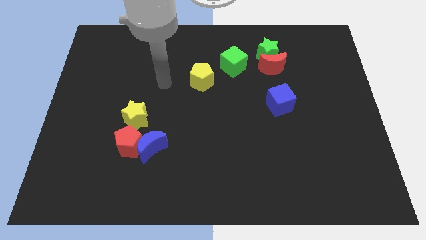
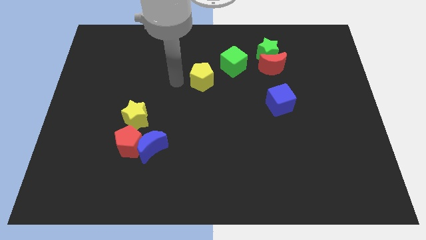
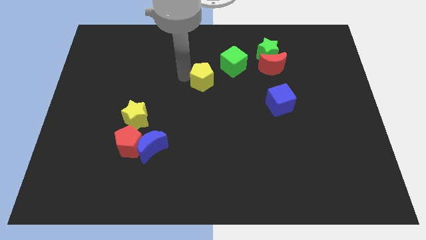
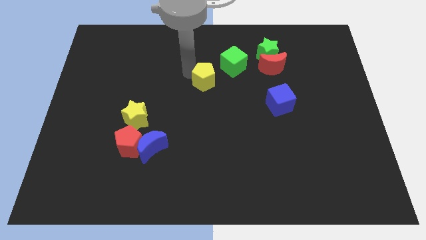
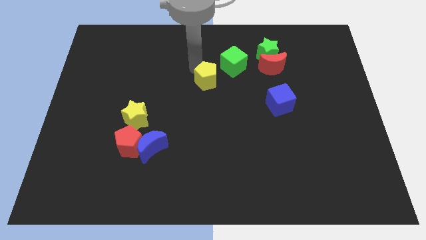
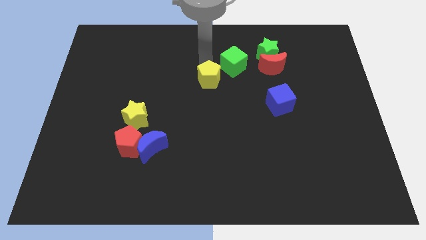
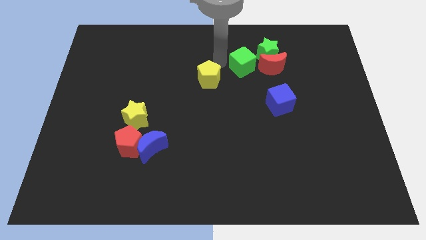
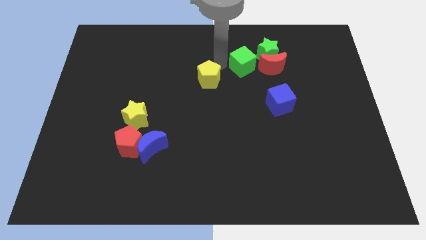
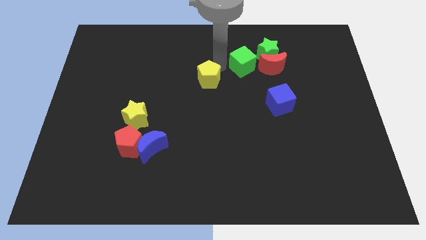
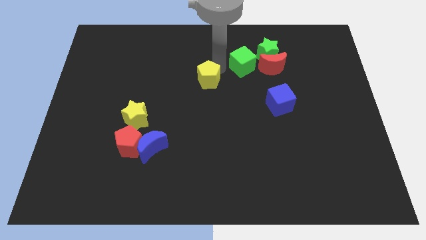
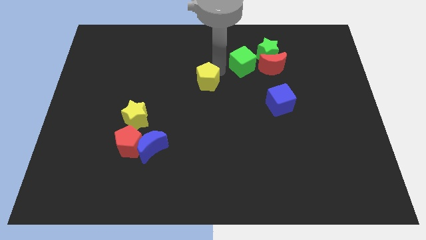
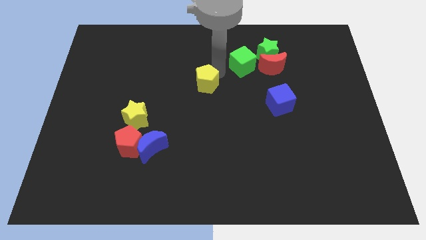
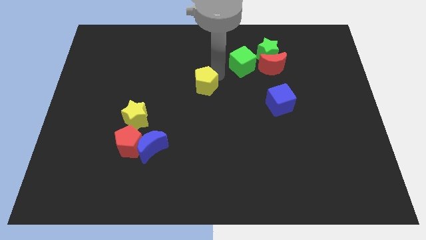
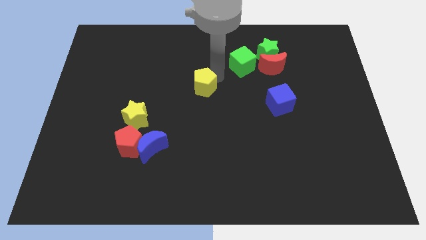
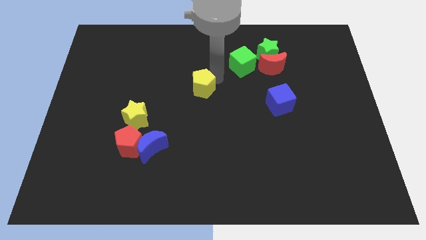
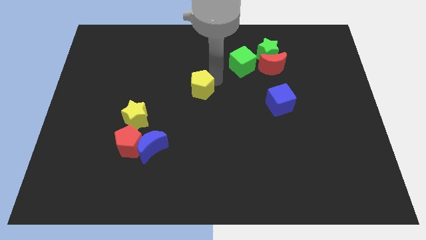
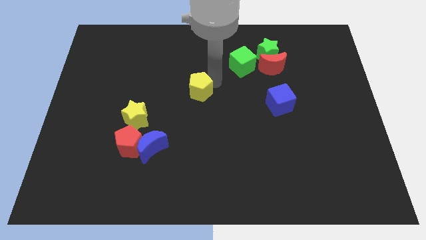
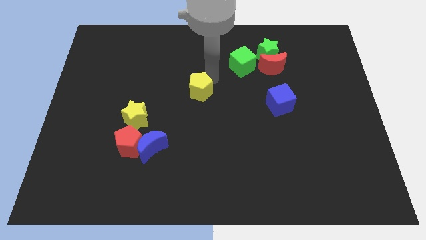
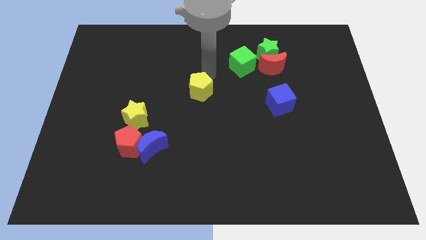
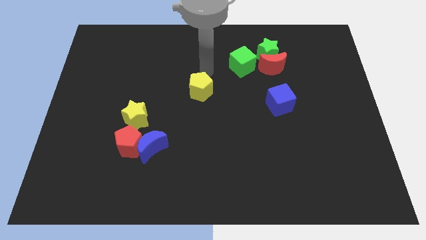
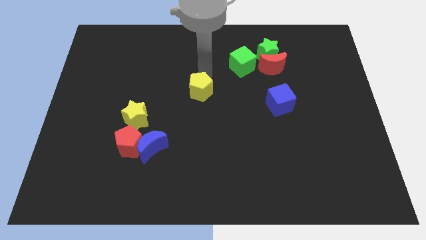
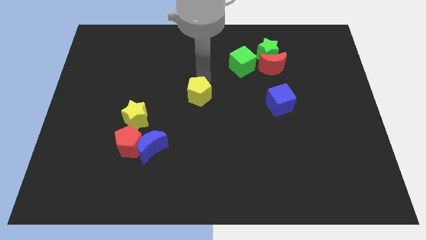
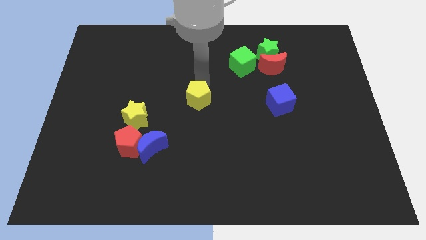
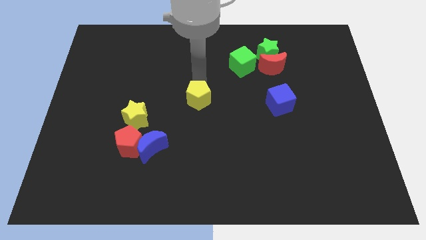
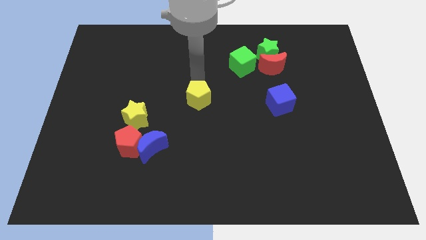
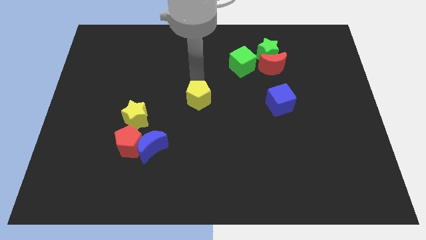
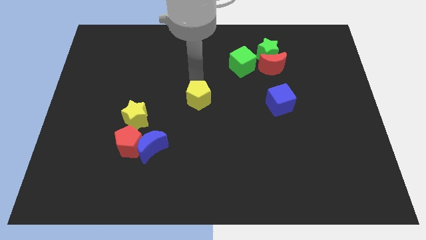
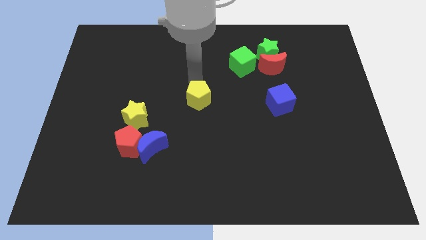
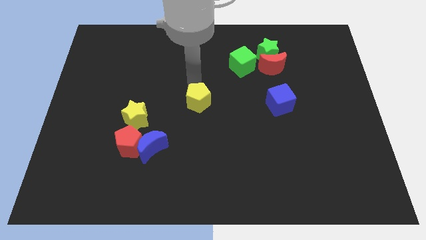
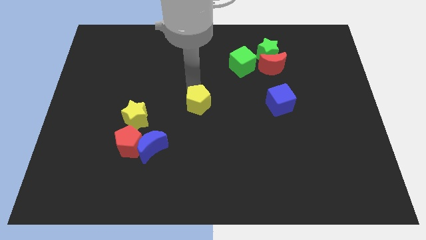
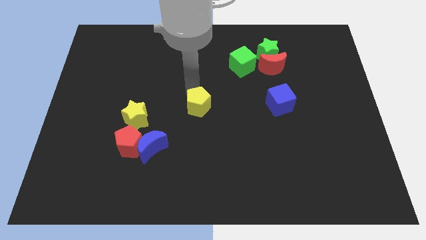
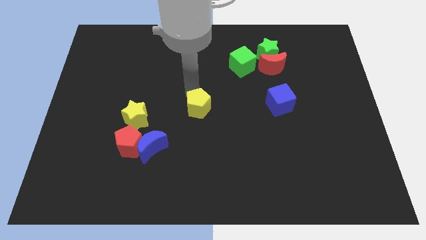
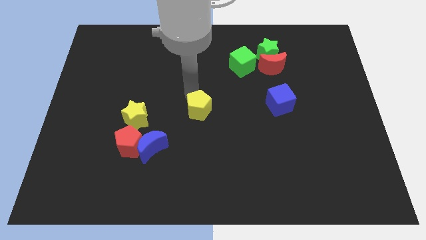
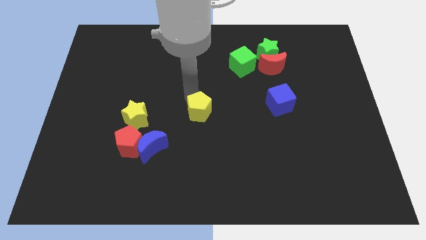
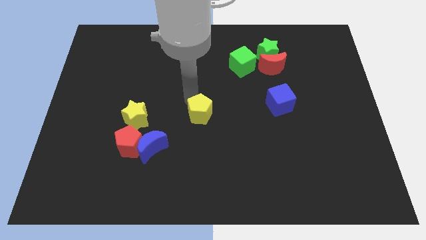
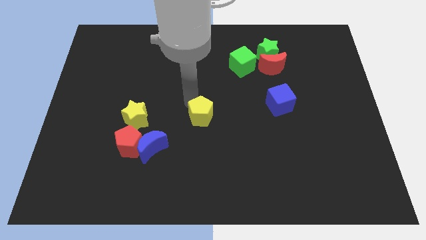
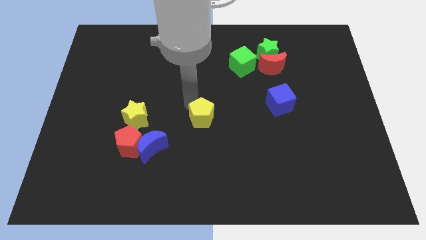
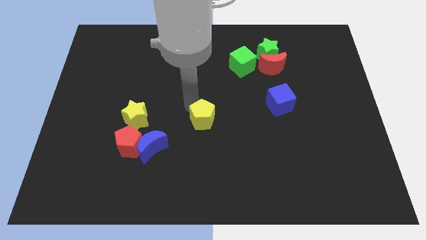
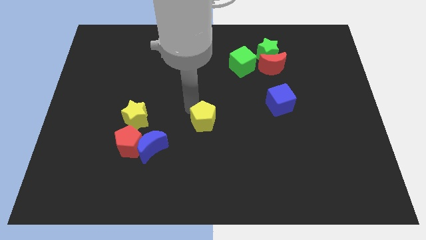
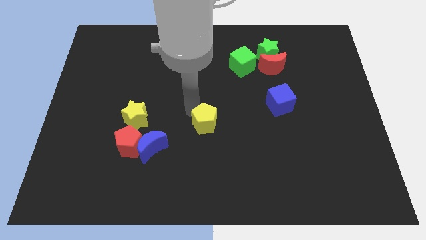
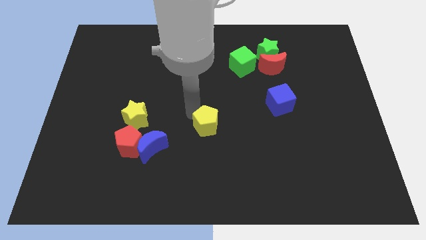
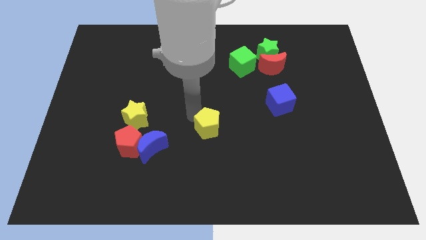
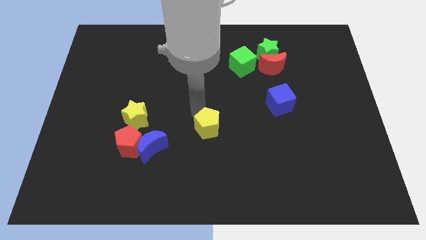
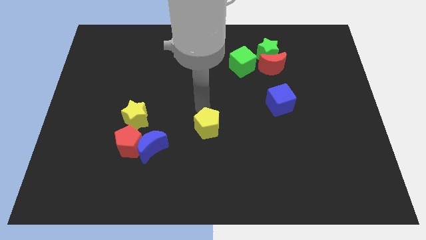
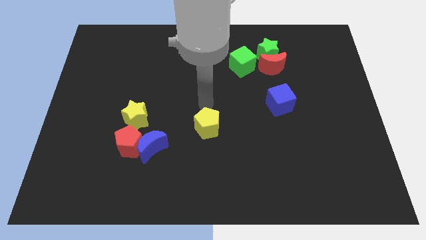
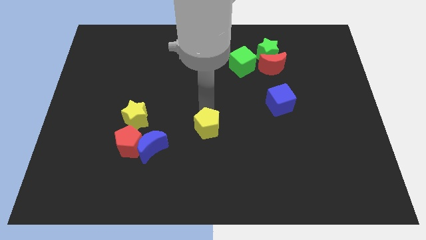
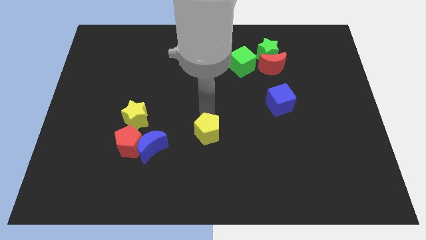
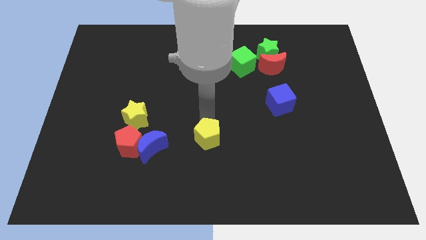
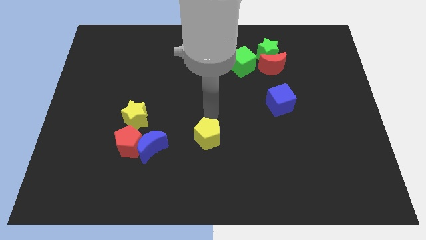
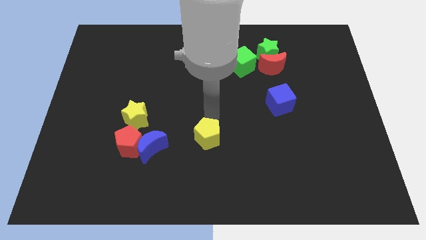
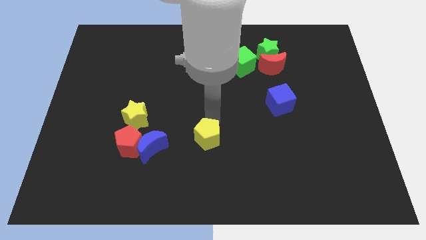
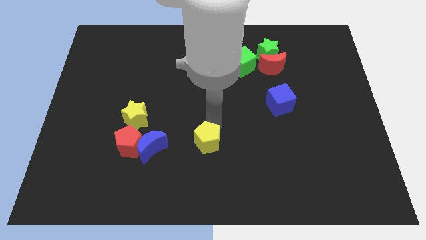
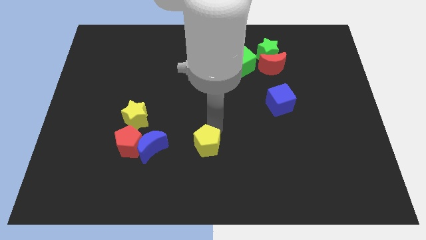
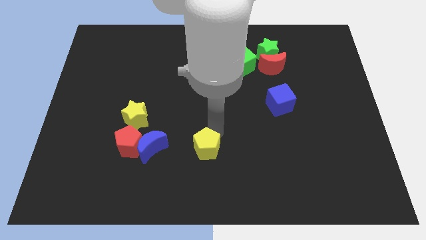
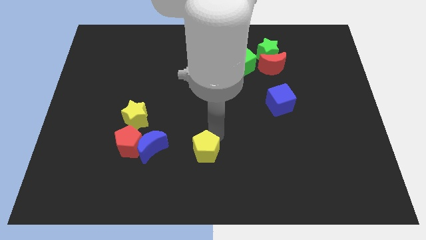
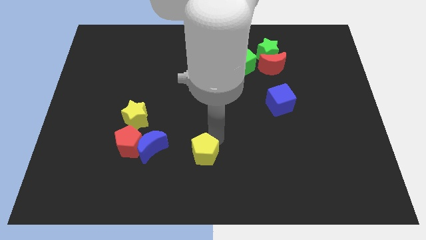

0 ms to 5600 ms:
move the yellow pentagon to the bottom

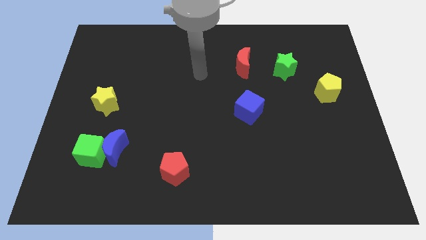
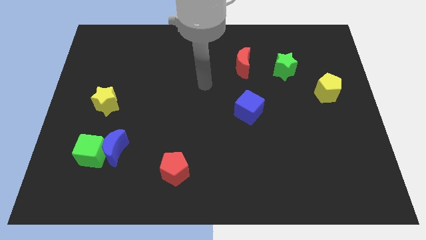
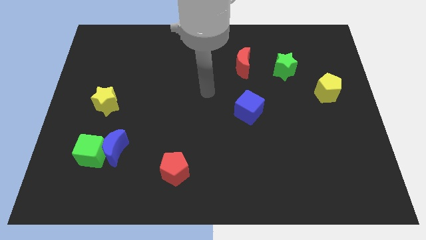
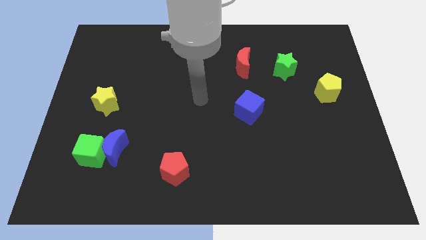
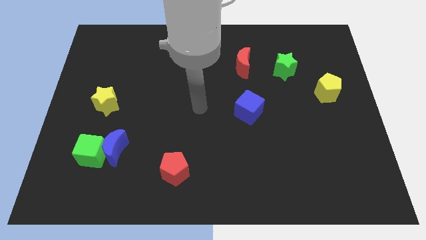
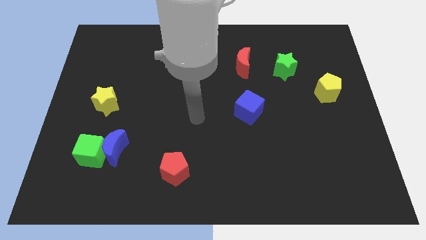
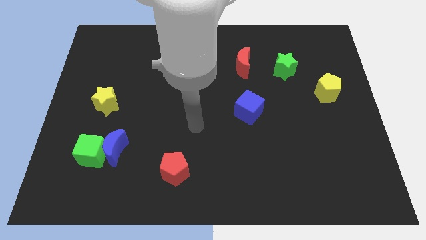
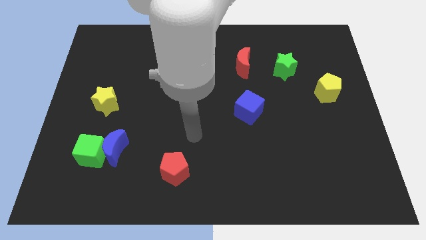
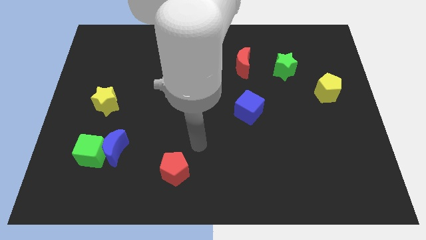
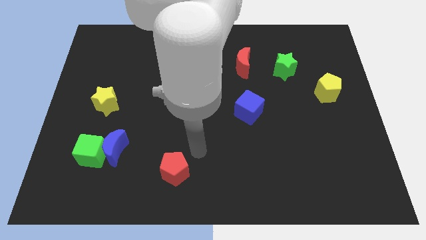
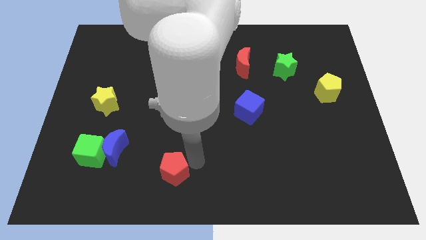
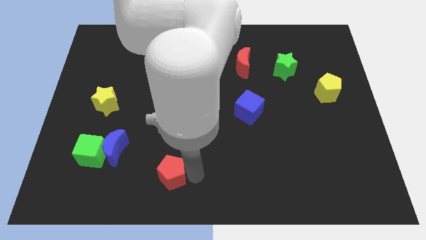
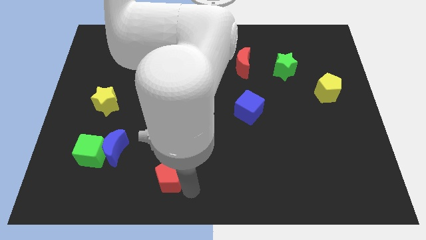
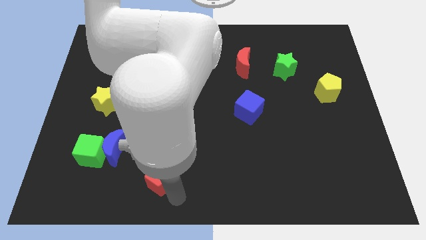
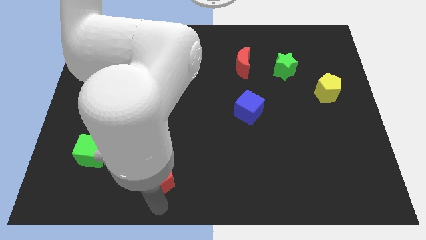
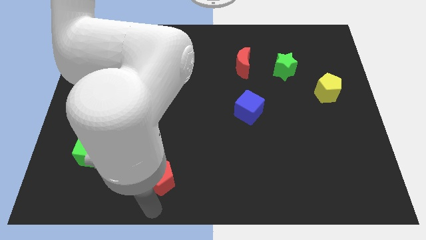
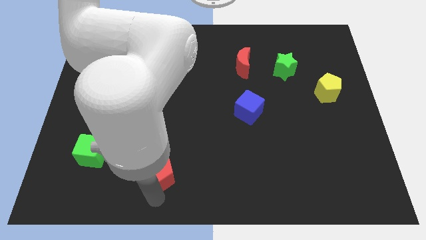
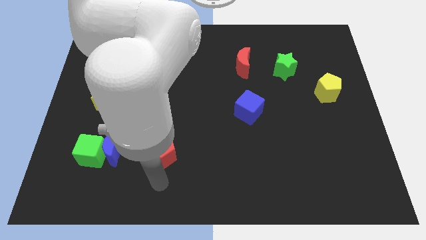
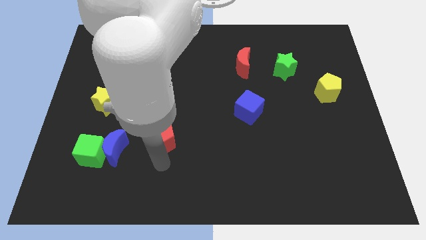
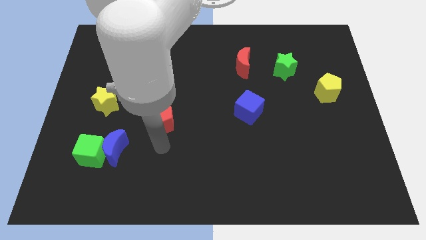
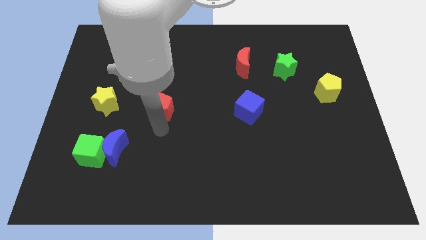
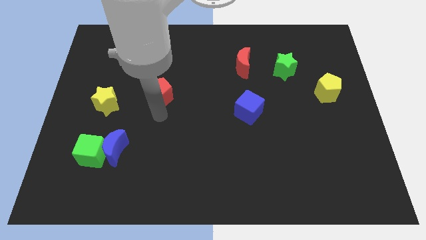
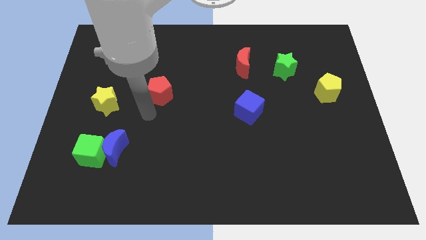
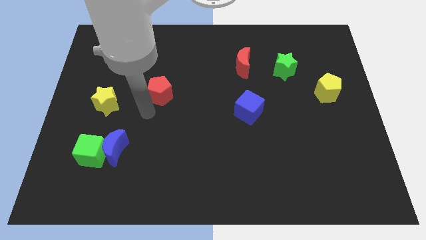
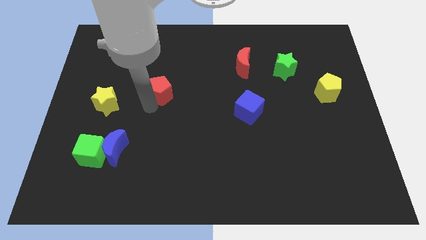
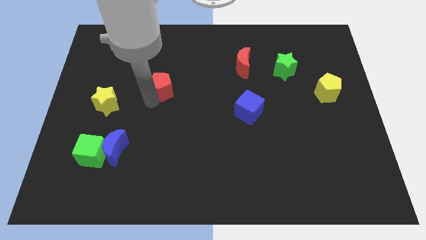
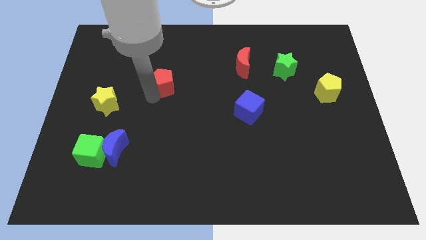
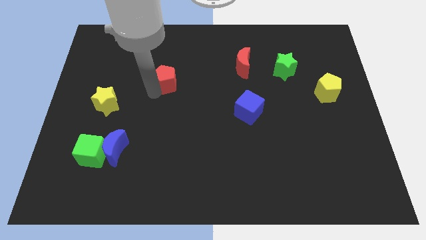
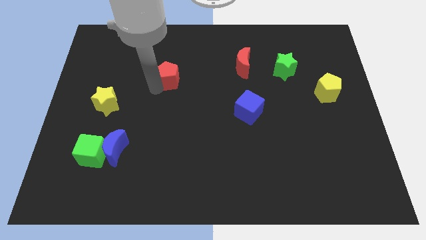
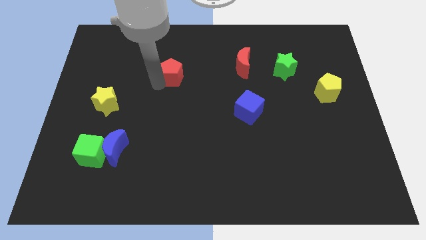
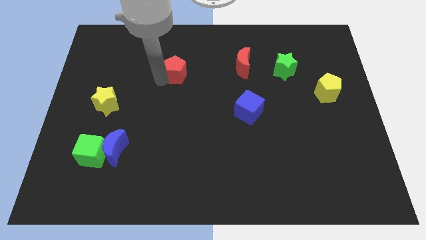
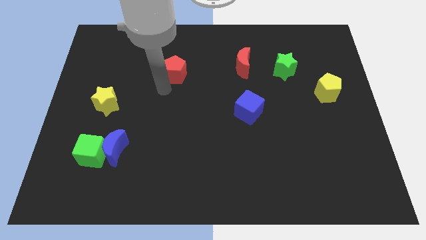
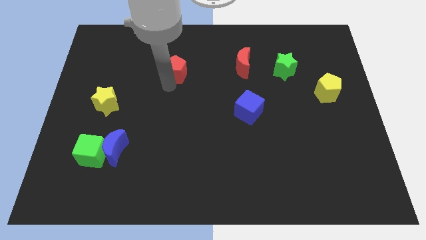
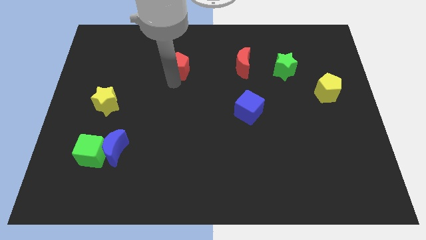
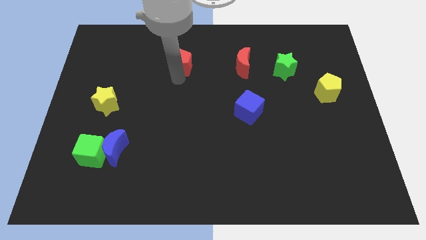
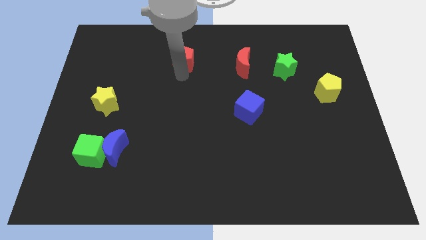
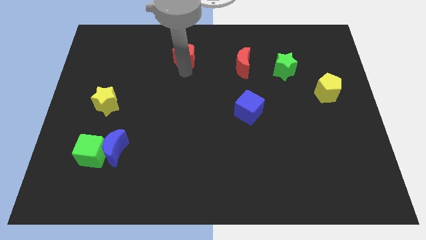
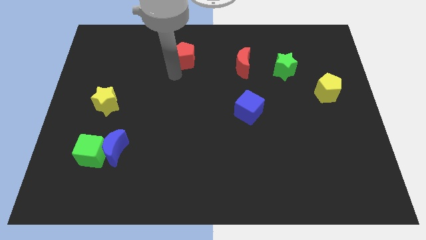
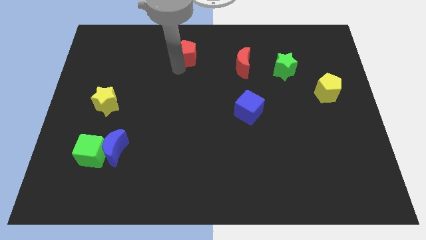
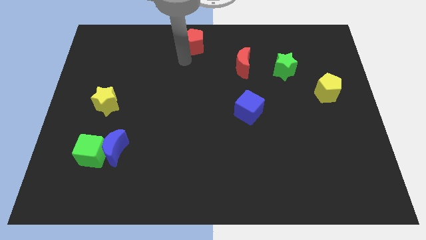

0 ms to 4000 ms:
move the red pentagon to the top side
